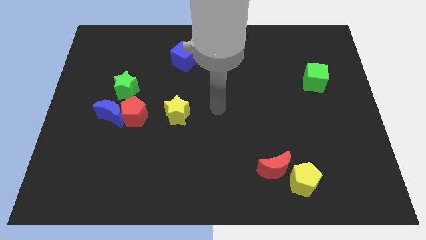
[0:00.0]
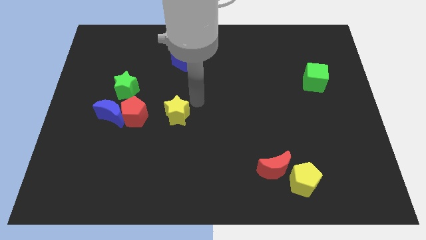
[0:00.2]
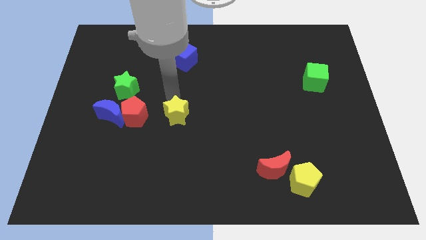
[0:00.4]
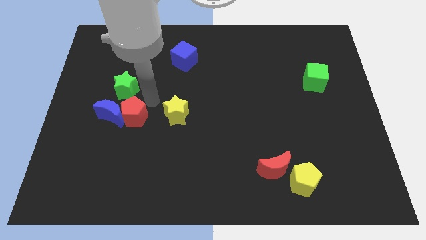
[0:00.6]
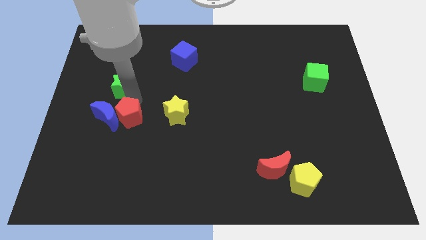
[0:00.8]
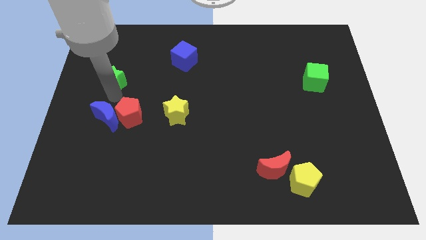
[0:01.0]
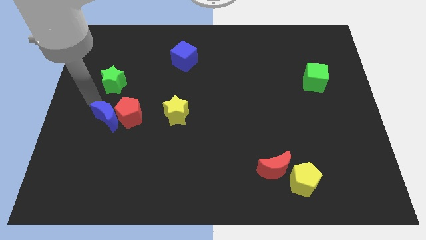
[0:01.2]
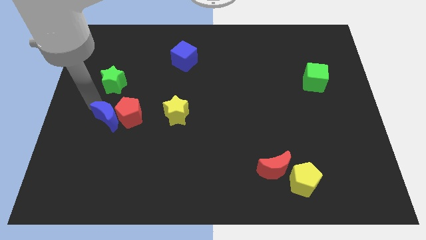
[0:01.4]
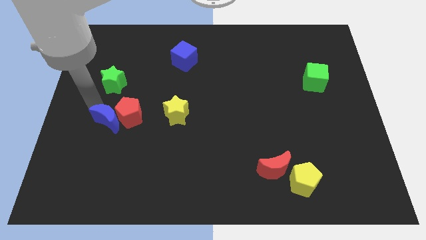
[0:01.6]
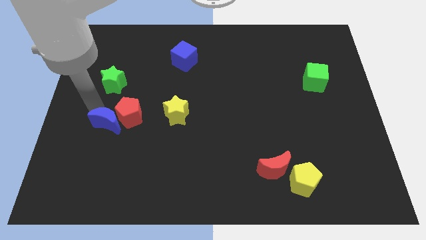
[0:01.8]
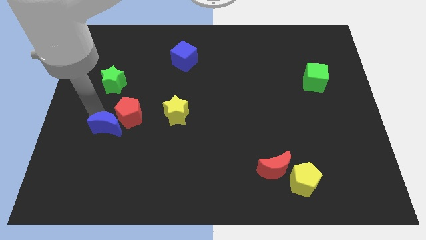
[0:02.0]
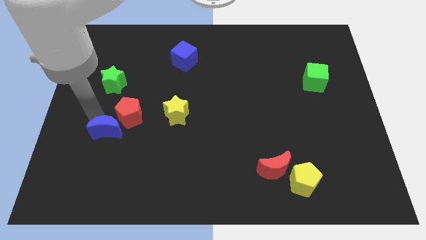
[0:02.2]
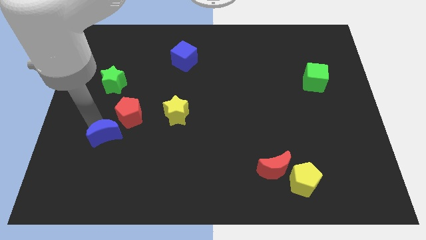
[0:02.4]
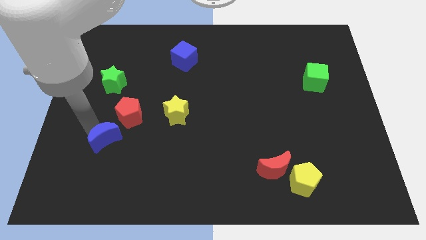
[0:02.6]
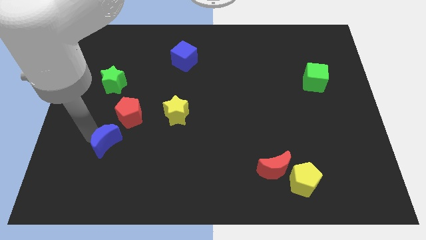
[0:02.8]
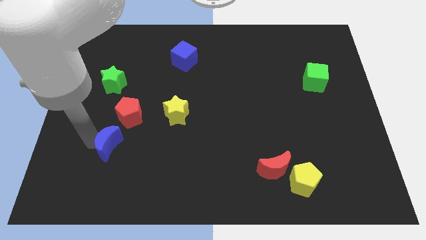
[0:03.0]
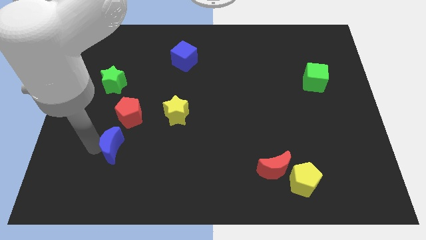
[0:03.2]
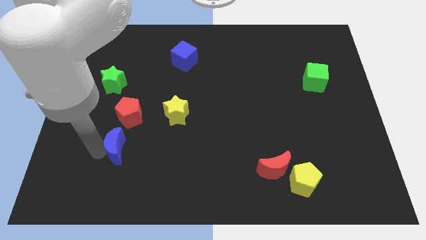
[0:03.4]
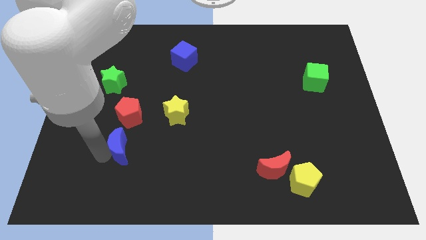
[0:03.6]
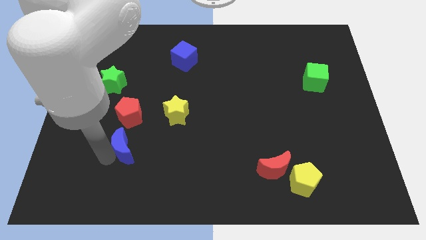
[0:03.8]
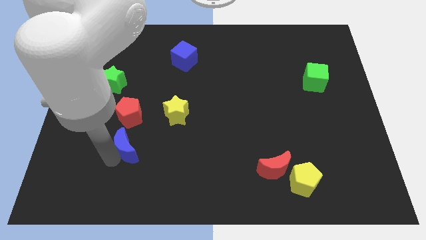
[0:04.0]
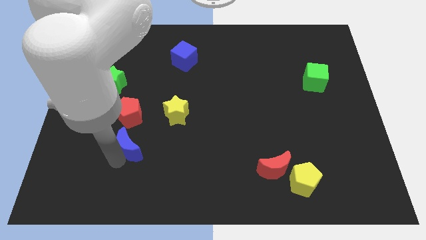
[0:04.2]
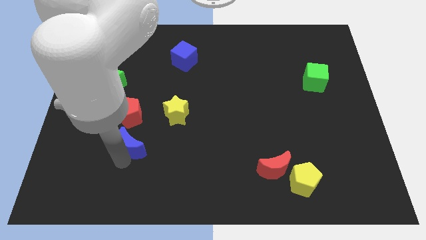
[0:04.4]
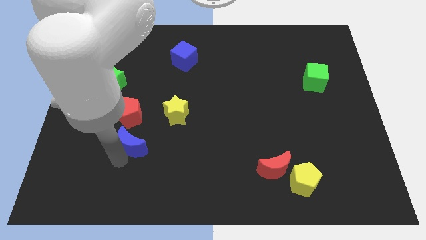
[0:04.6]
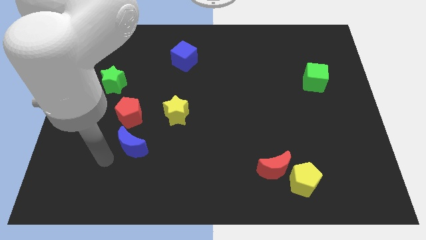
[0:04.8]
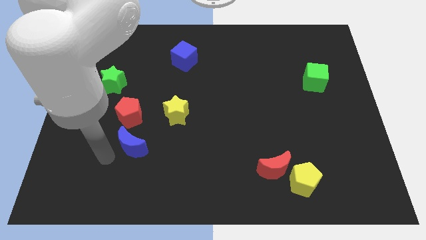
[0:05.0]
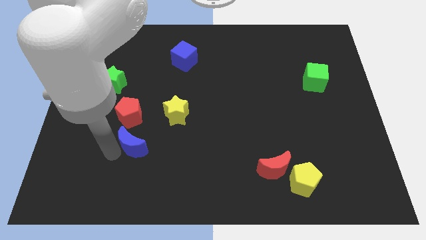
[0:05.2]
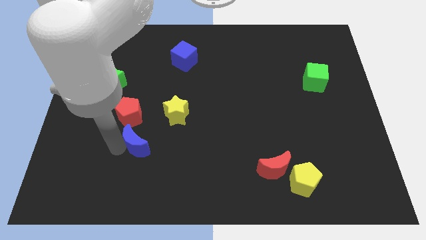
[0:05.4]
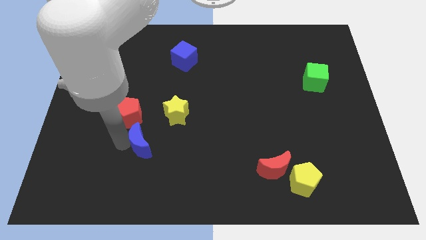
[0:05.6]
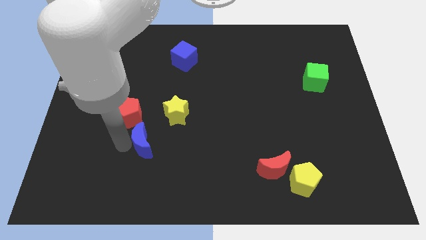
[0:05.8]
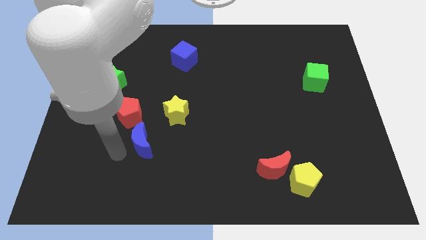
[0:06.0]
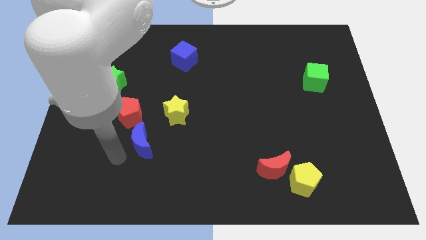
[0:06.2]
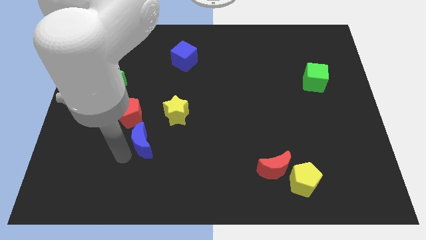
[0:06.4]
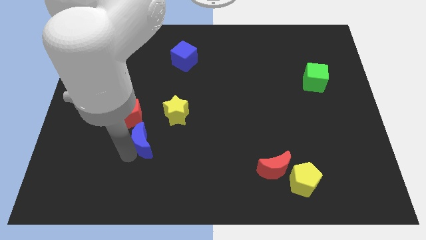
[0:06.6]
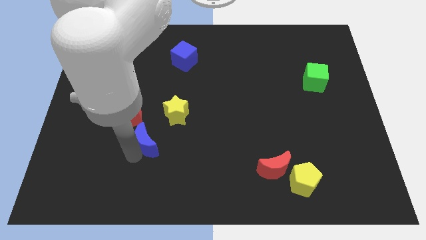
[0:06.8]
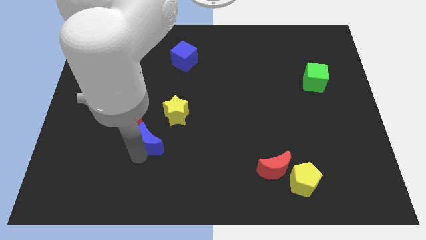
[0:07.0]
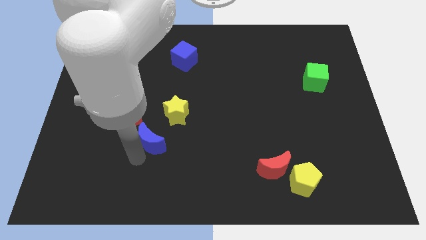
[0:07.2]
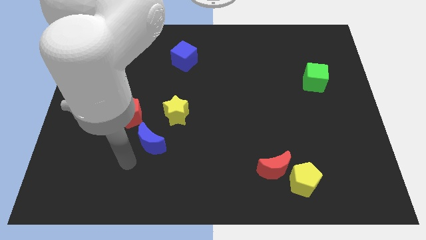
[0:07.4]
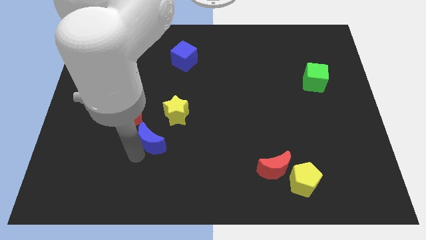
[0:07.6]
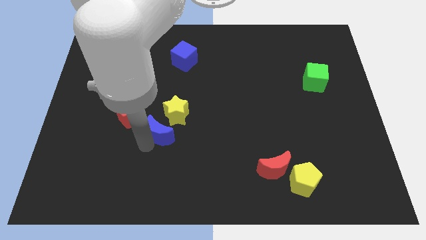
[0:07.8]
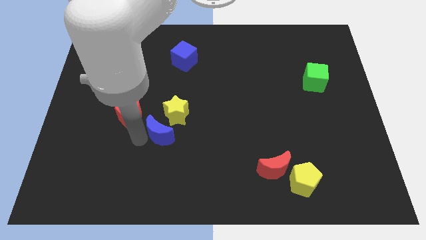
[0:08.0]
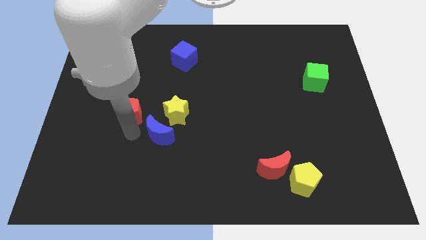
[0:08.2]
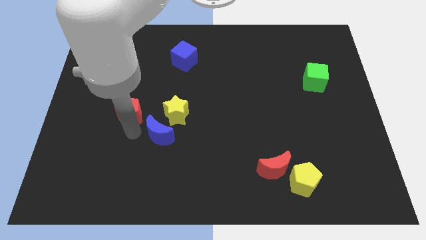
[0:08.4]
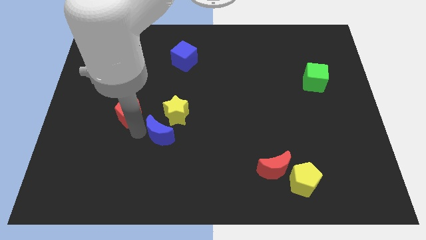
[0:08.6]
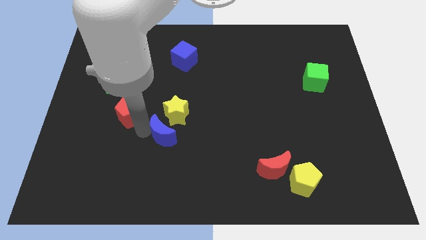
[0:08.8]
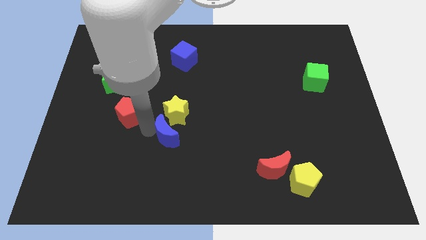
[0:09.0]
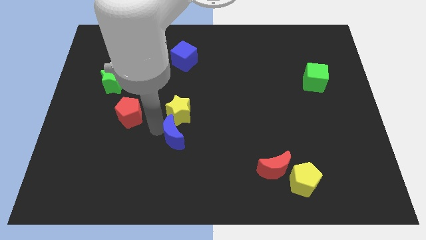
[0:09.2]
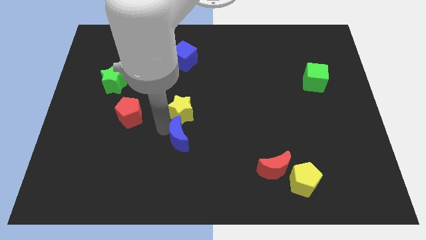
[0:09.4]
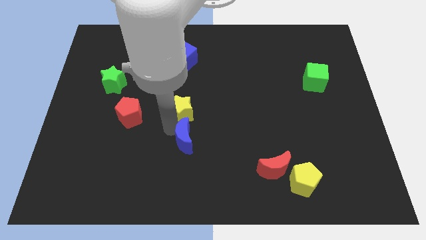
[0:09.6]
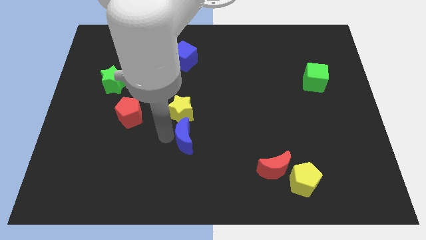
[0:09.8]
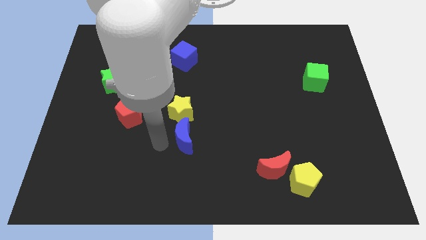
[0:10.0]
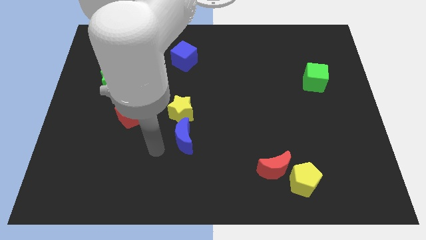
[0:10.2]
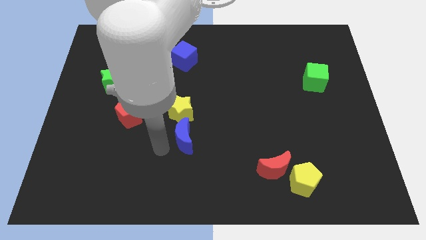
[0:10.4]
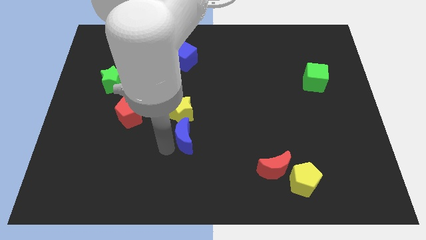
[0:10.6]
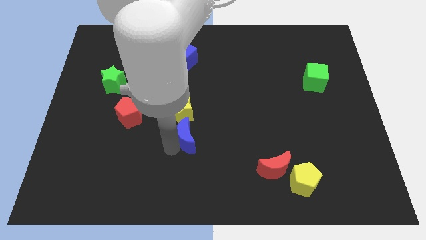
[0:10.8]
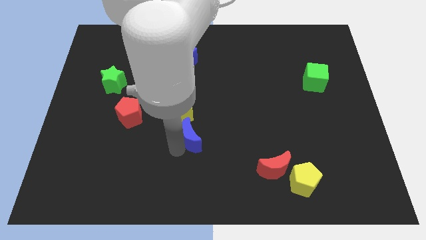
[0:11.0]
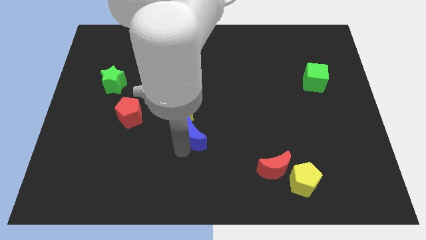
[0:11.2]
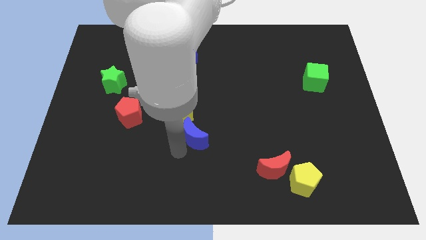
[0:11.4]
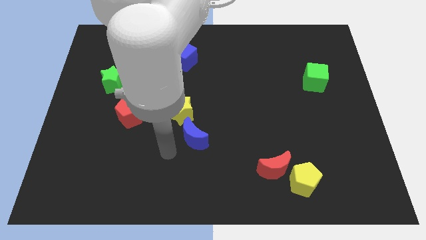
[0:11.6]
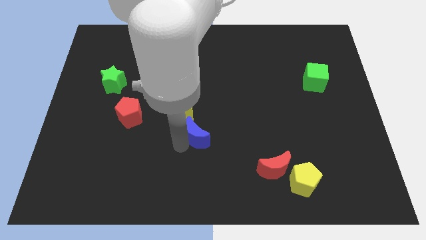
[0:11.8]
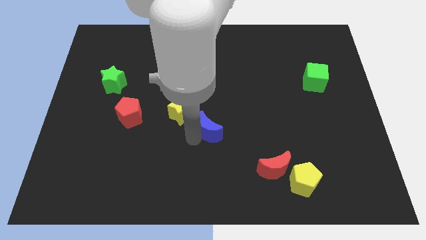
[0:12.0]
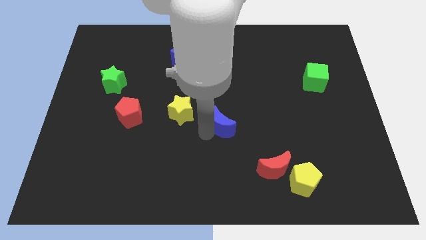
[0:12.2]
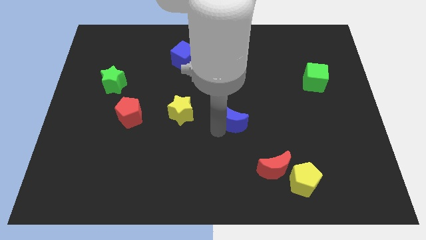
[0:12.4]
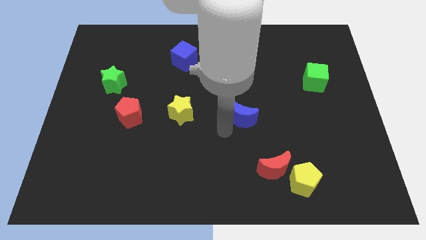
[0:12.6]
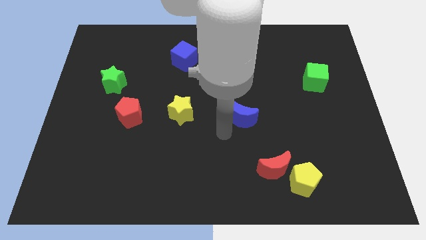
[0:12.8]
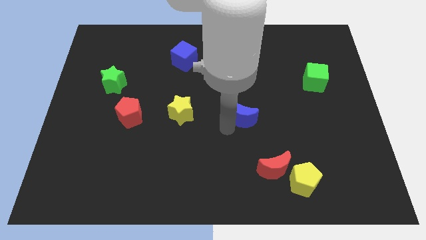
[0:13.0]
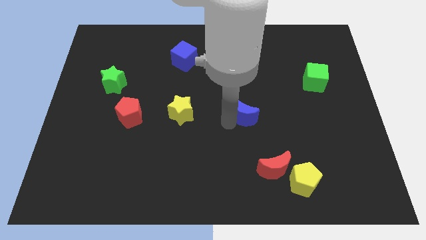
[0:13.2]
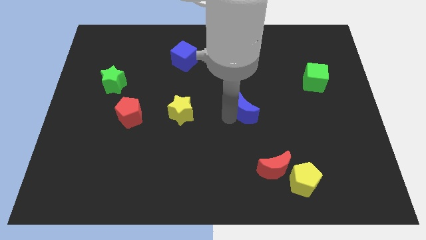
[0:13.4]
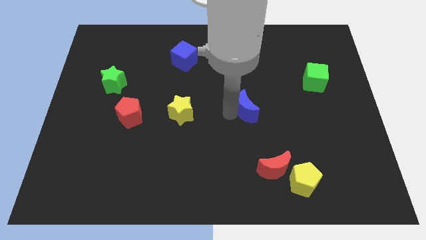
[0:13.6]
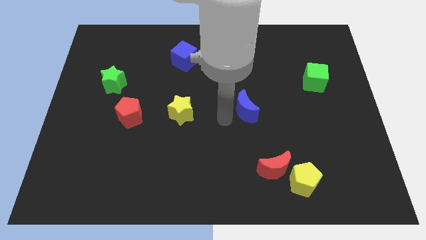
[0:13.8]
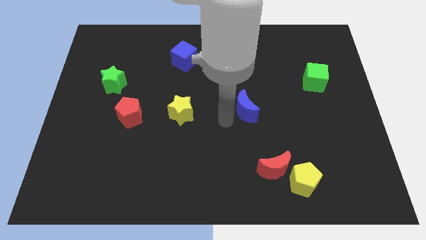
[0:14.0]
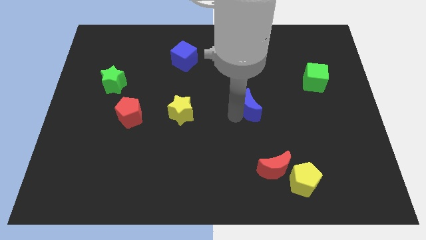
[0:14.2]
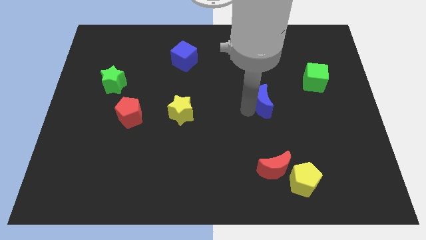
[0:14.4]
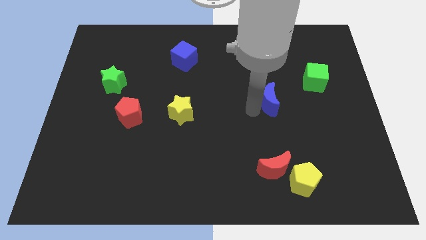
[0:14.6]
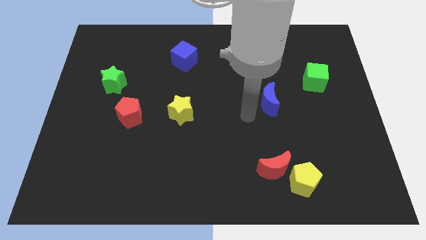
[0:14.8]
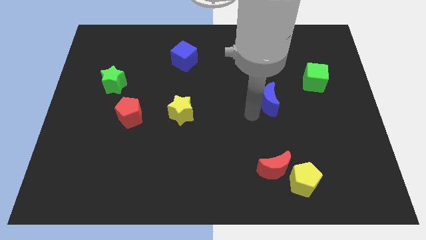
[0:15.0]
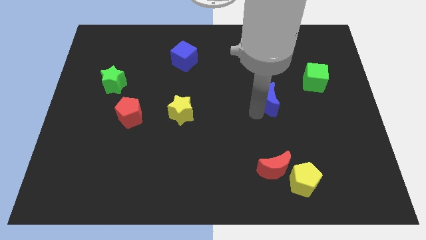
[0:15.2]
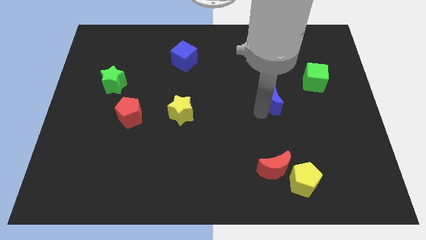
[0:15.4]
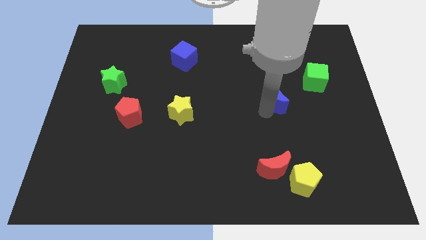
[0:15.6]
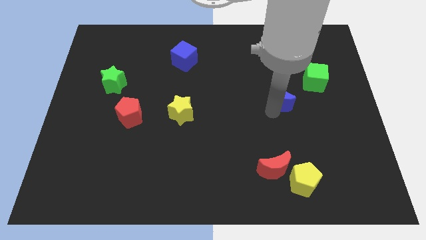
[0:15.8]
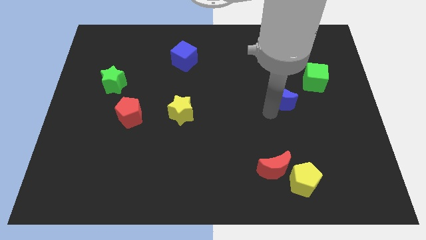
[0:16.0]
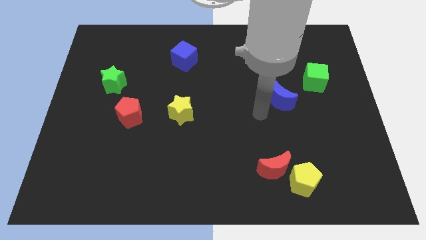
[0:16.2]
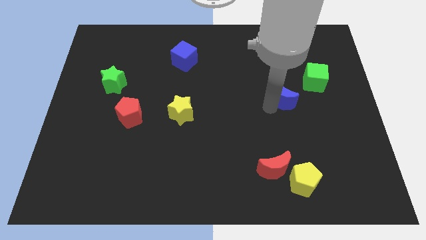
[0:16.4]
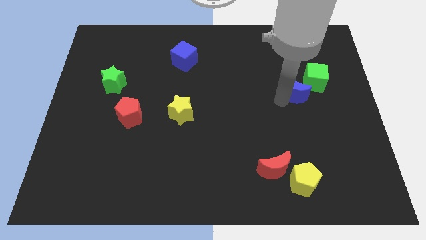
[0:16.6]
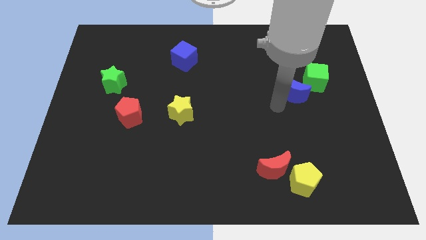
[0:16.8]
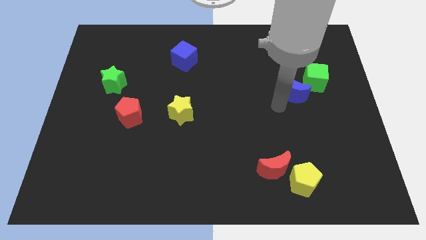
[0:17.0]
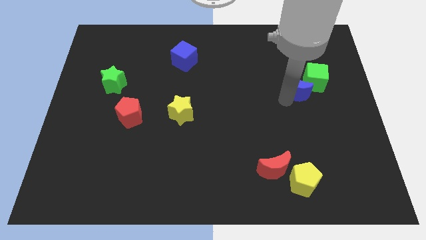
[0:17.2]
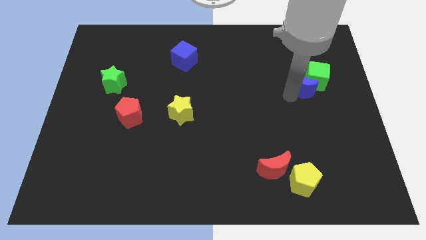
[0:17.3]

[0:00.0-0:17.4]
move the blue moon to the green cube
